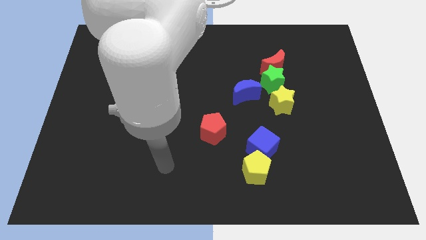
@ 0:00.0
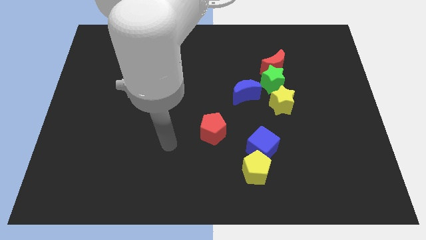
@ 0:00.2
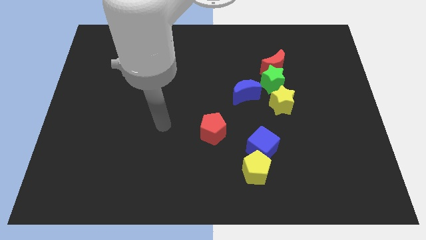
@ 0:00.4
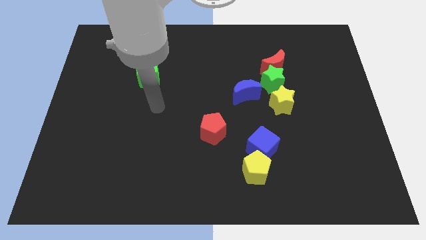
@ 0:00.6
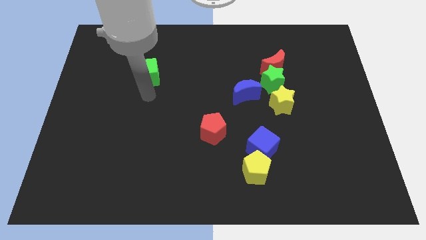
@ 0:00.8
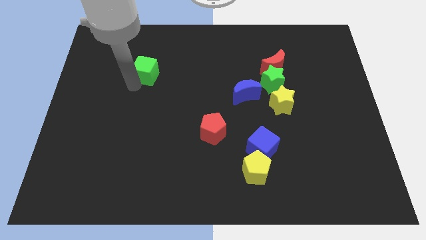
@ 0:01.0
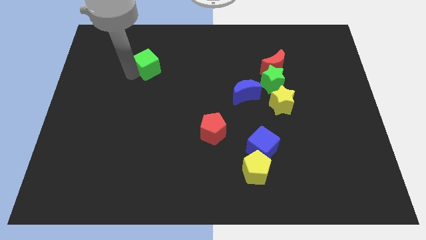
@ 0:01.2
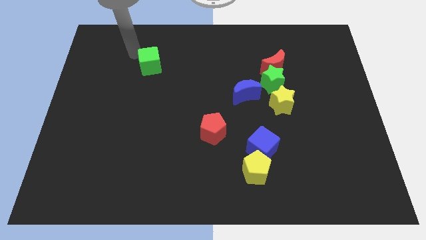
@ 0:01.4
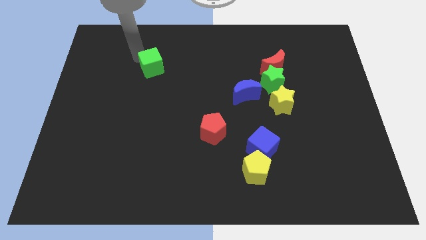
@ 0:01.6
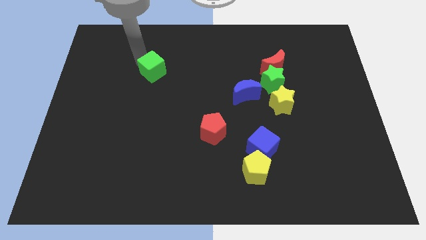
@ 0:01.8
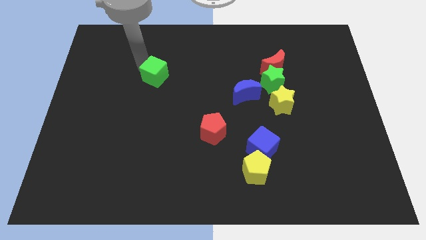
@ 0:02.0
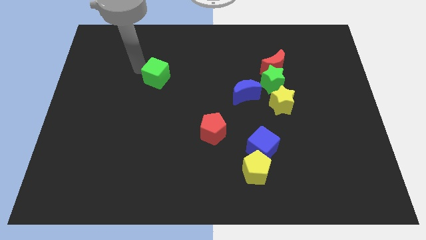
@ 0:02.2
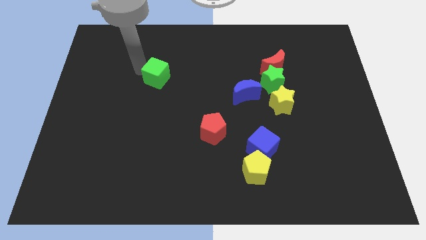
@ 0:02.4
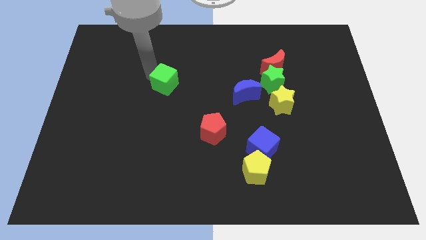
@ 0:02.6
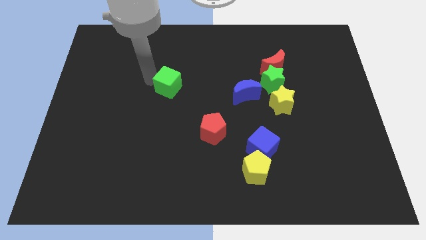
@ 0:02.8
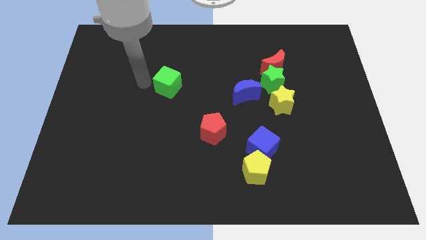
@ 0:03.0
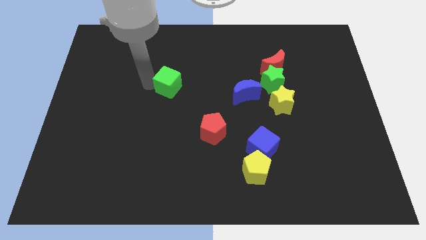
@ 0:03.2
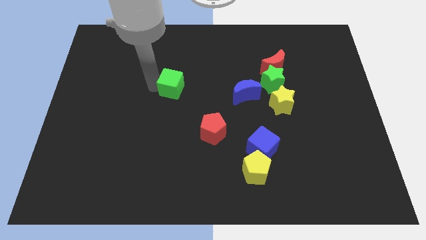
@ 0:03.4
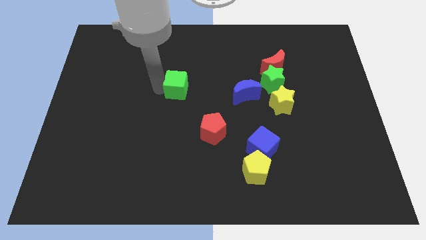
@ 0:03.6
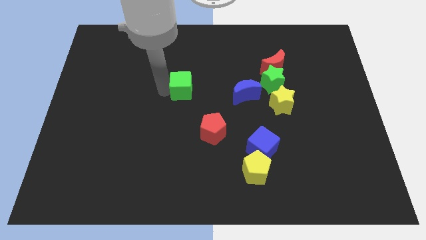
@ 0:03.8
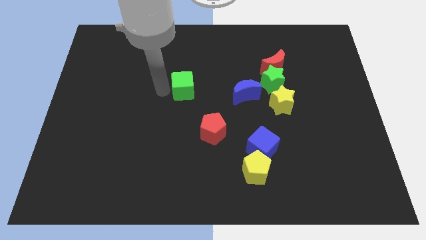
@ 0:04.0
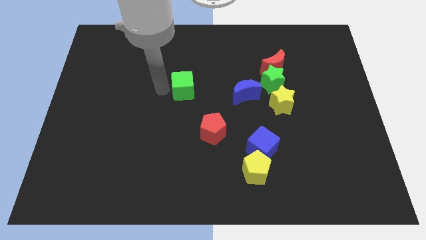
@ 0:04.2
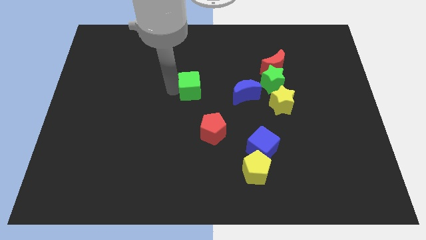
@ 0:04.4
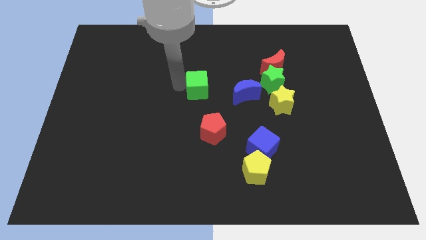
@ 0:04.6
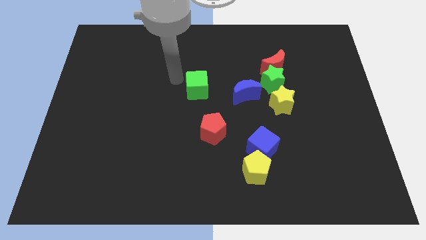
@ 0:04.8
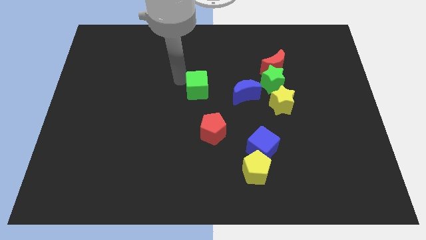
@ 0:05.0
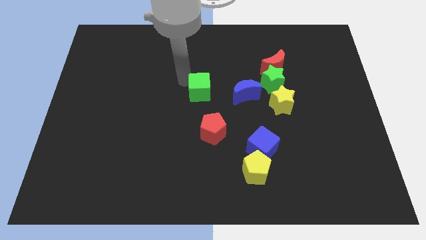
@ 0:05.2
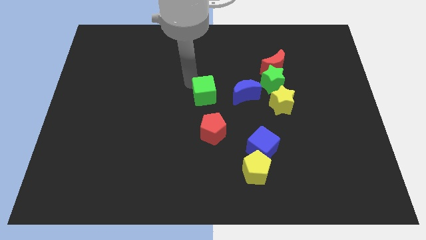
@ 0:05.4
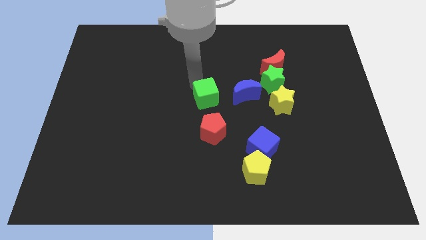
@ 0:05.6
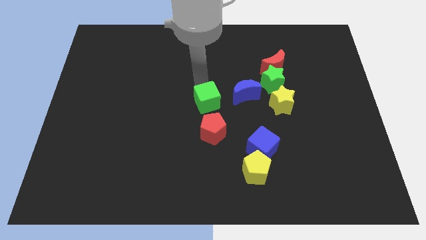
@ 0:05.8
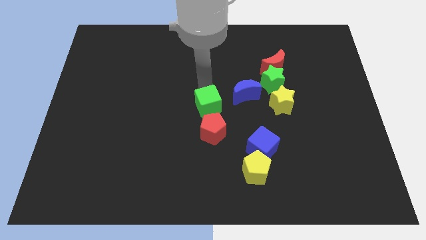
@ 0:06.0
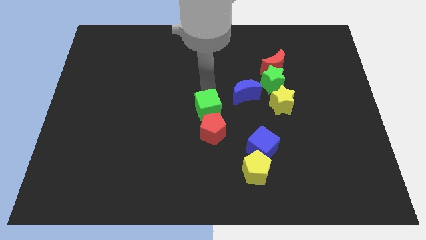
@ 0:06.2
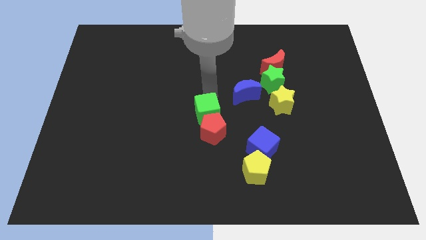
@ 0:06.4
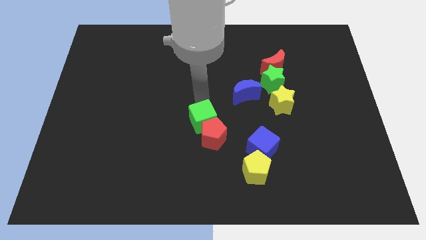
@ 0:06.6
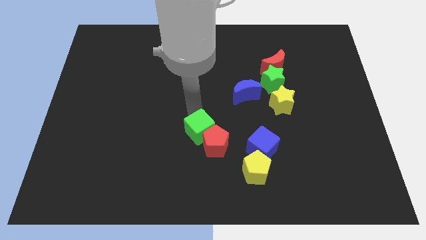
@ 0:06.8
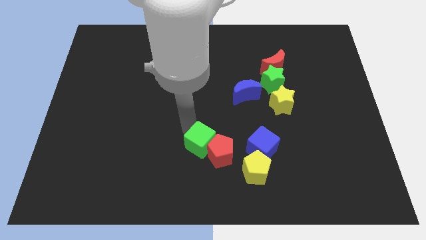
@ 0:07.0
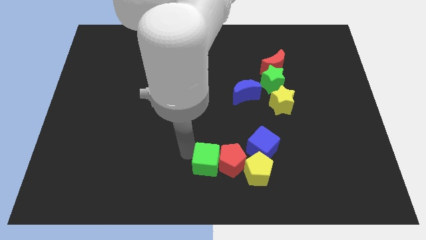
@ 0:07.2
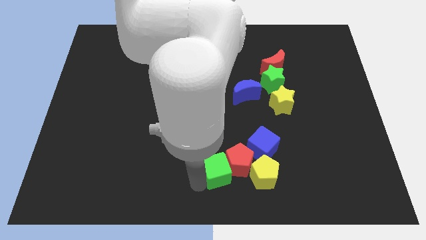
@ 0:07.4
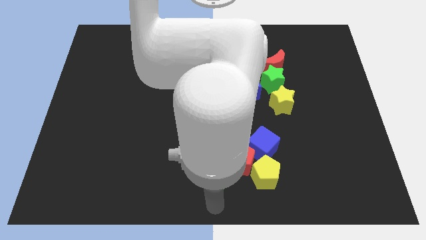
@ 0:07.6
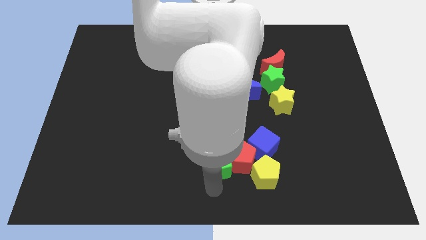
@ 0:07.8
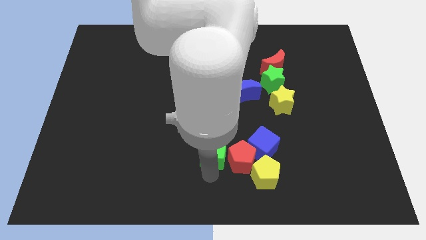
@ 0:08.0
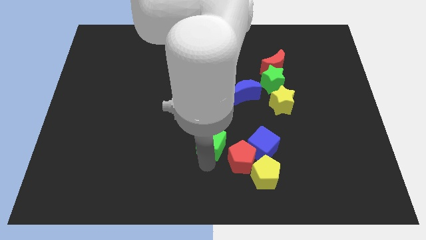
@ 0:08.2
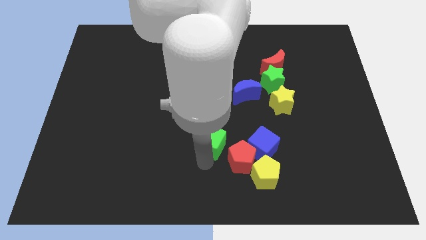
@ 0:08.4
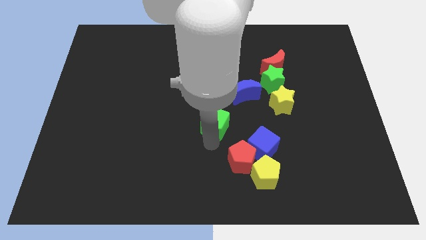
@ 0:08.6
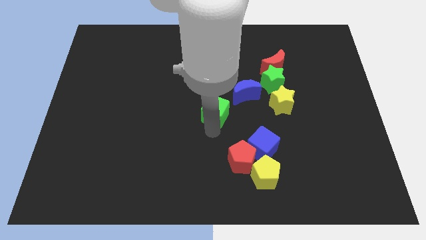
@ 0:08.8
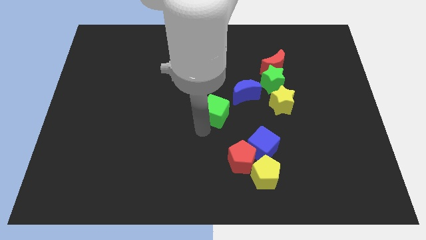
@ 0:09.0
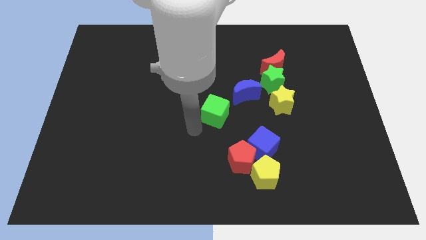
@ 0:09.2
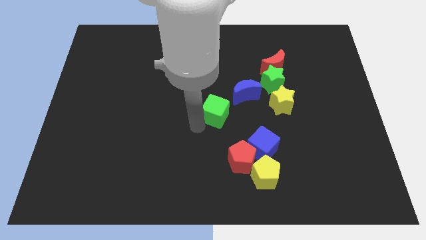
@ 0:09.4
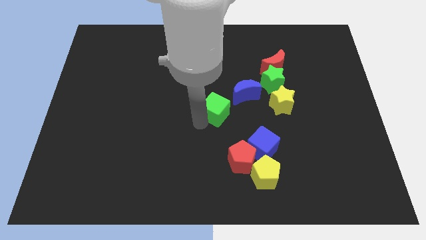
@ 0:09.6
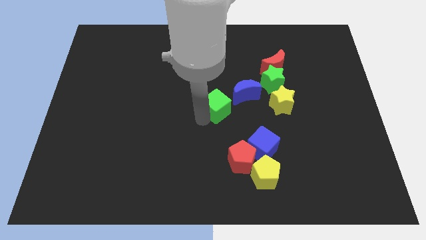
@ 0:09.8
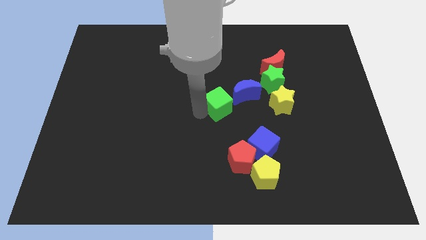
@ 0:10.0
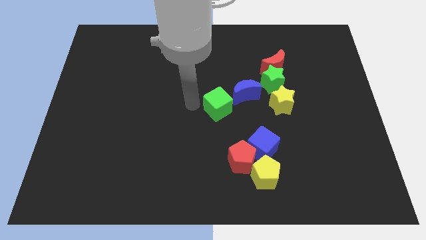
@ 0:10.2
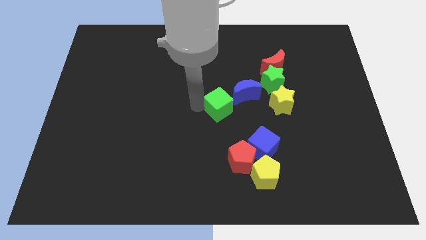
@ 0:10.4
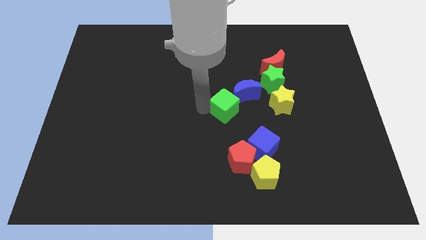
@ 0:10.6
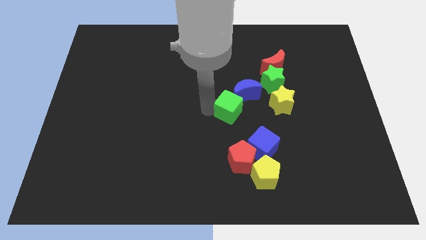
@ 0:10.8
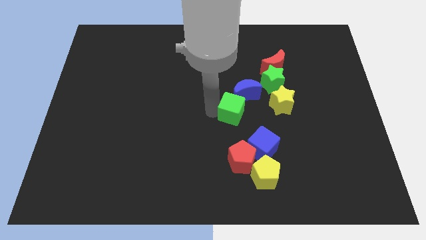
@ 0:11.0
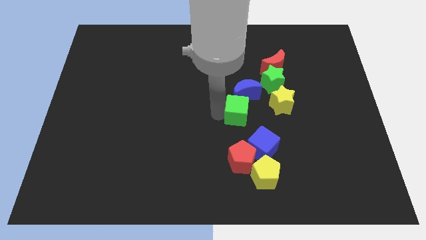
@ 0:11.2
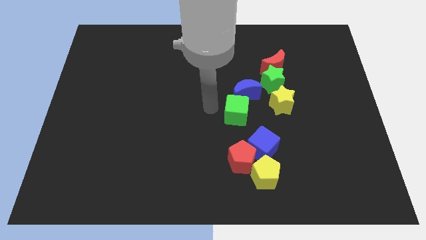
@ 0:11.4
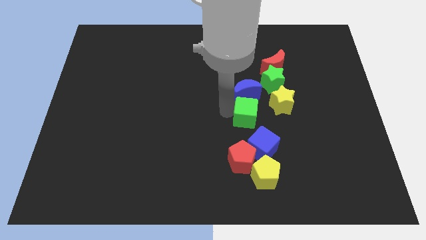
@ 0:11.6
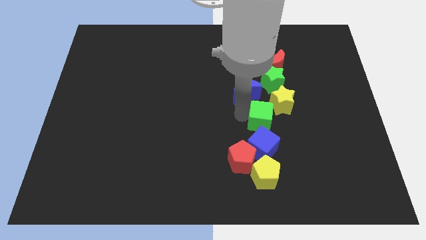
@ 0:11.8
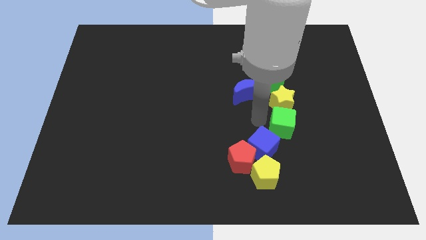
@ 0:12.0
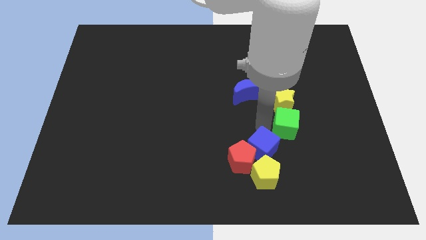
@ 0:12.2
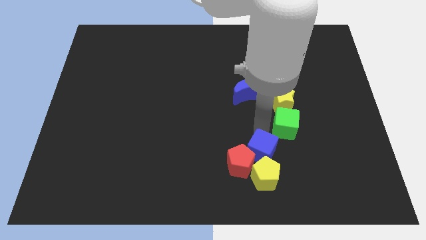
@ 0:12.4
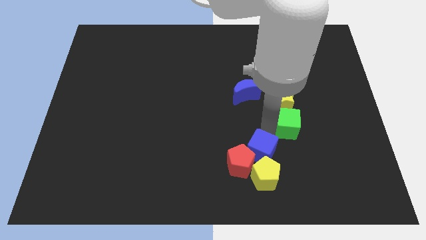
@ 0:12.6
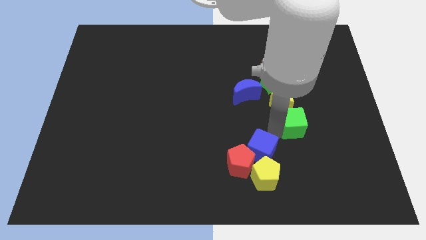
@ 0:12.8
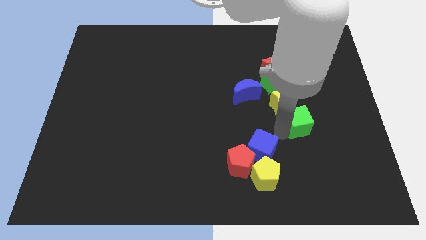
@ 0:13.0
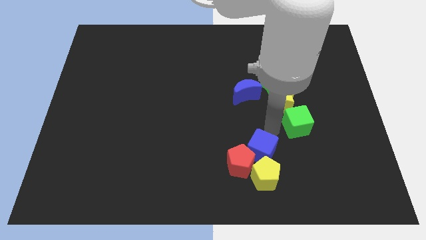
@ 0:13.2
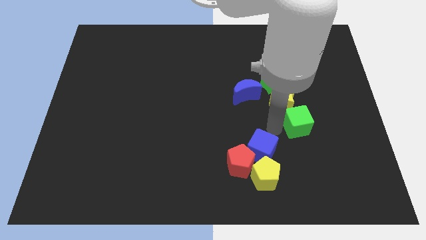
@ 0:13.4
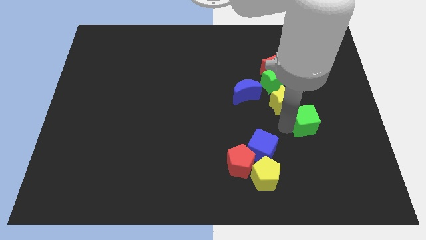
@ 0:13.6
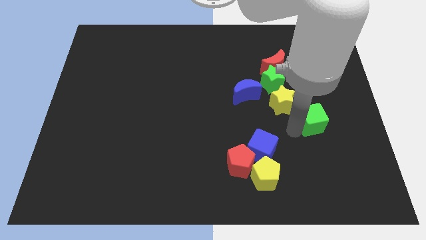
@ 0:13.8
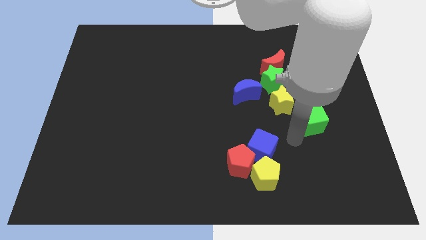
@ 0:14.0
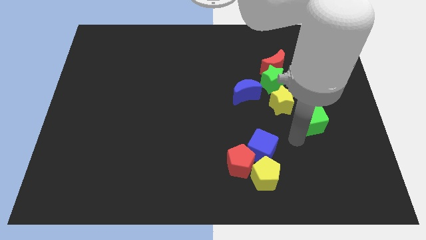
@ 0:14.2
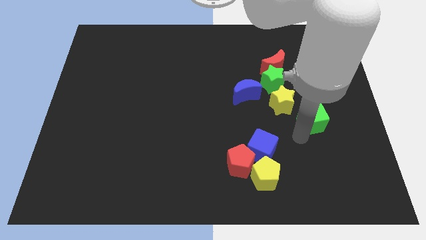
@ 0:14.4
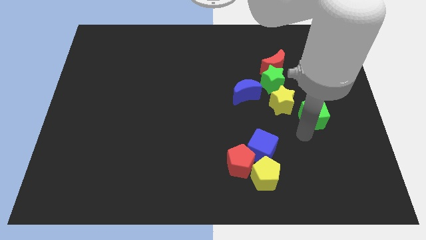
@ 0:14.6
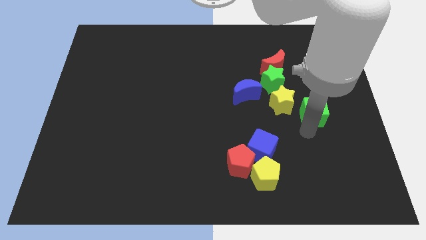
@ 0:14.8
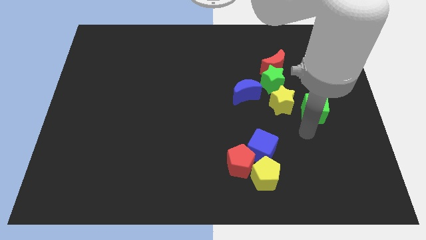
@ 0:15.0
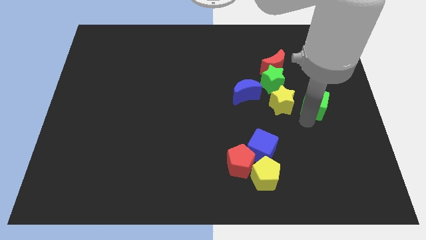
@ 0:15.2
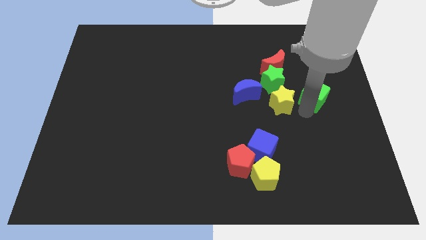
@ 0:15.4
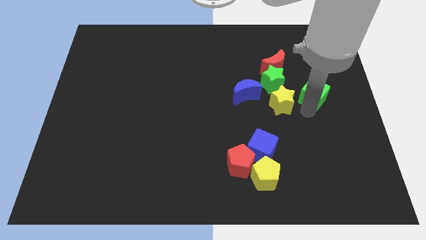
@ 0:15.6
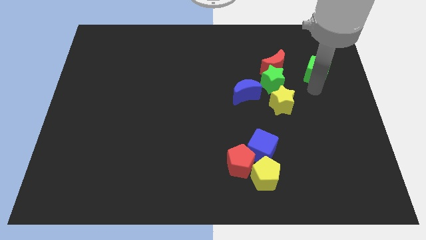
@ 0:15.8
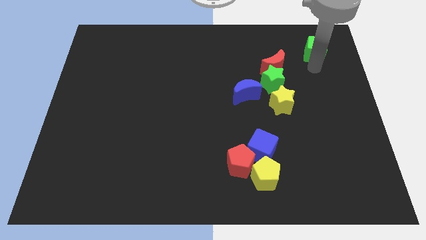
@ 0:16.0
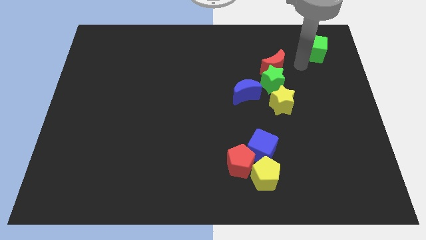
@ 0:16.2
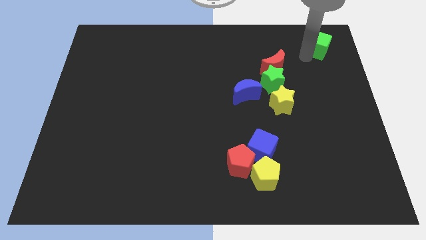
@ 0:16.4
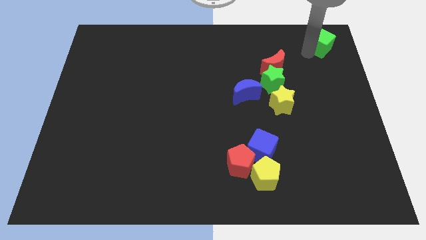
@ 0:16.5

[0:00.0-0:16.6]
move the green cube to the upper right corner
